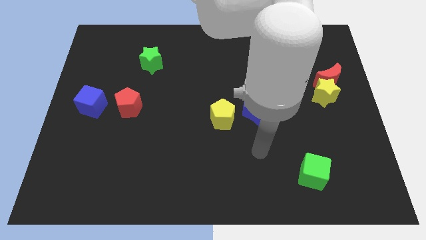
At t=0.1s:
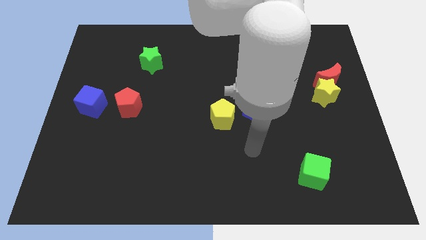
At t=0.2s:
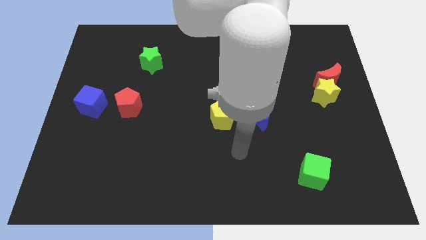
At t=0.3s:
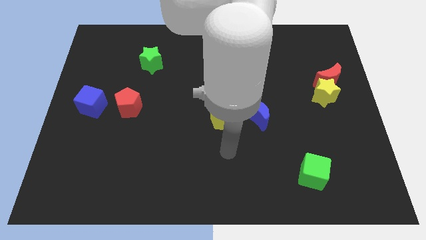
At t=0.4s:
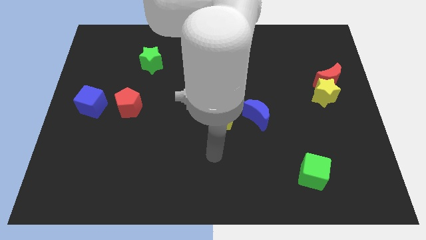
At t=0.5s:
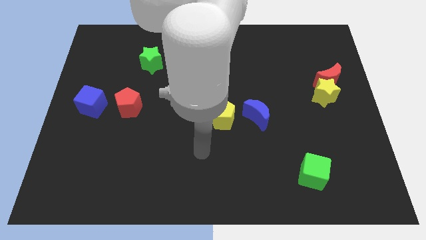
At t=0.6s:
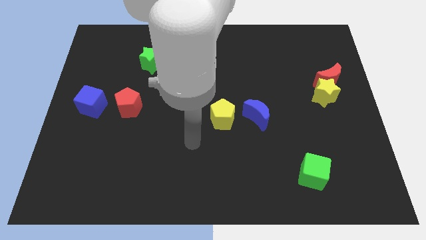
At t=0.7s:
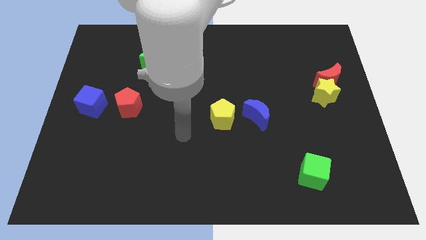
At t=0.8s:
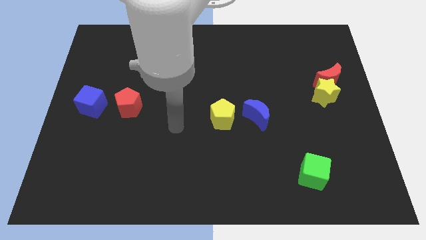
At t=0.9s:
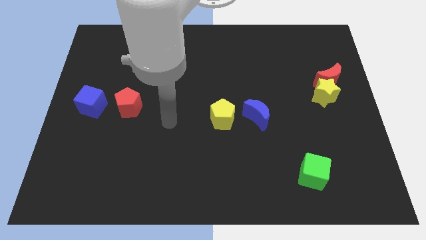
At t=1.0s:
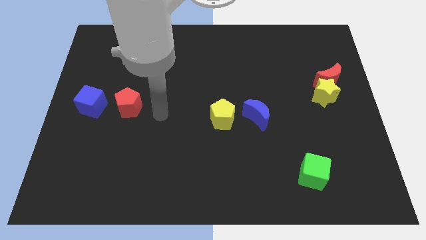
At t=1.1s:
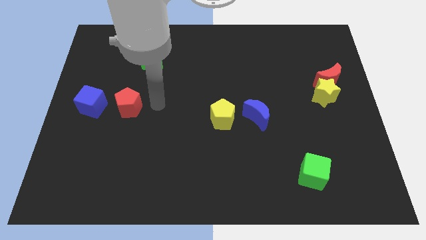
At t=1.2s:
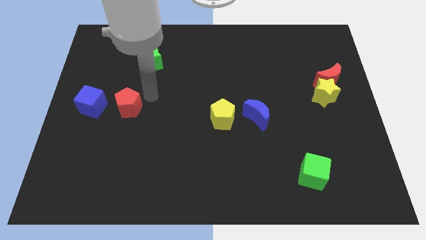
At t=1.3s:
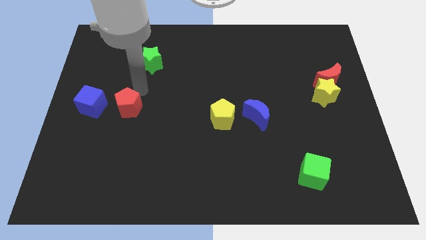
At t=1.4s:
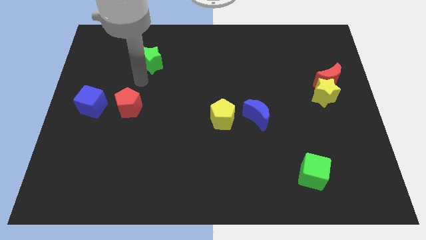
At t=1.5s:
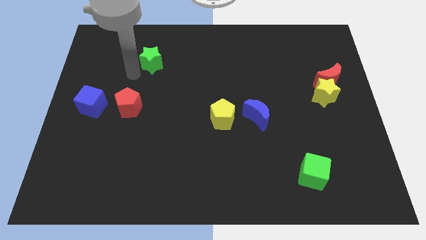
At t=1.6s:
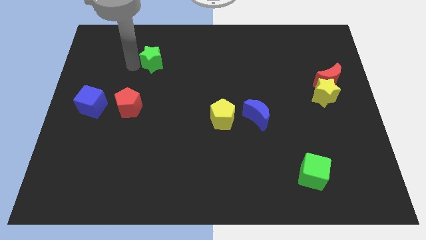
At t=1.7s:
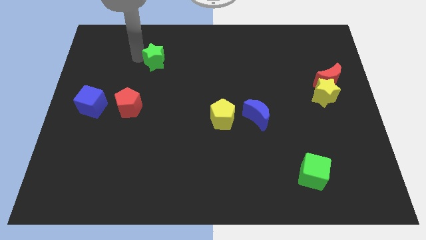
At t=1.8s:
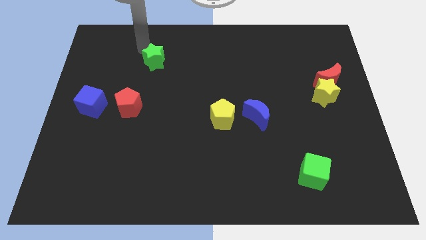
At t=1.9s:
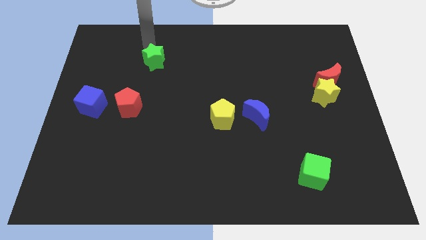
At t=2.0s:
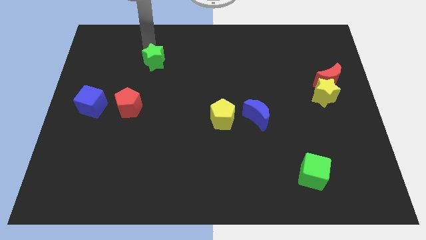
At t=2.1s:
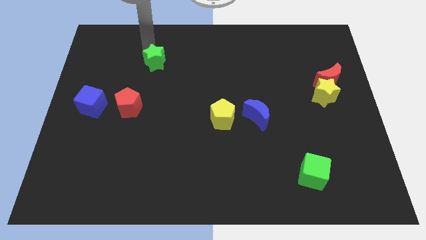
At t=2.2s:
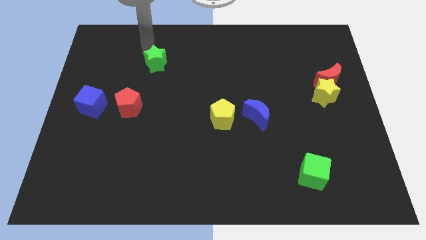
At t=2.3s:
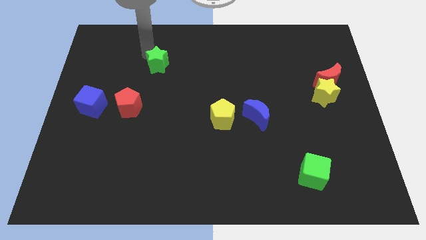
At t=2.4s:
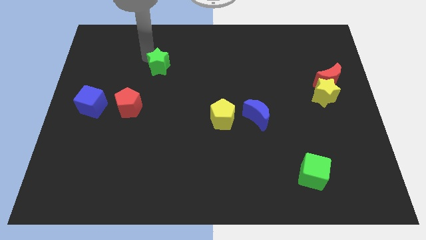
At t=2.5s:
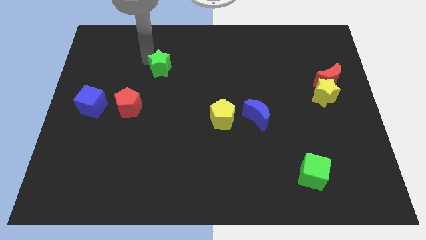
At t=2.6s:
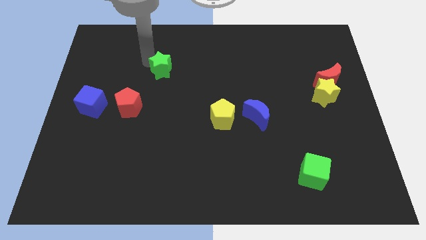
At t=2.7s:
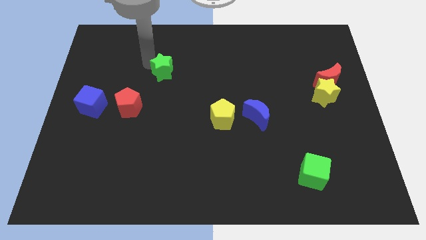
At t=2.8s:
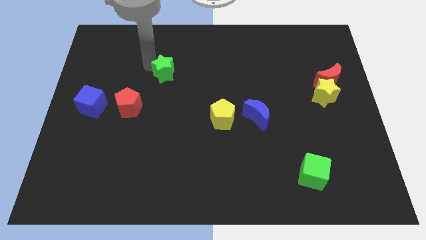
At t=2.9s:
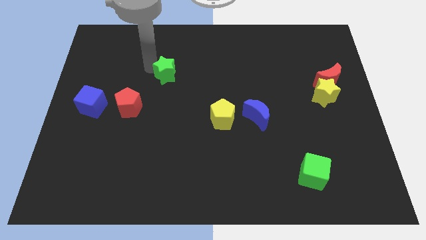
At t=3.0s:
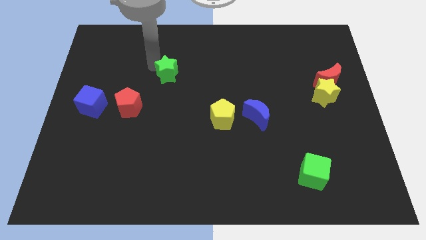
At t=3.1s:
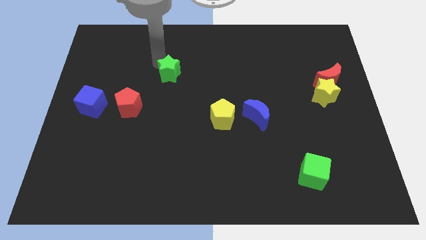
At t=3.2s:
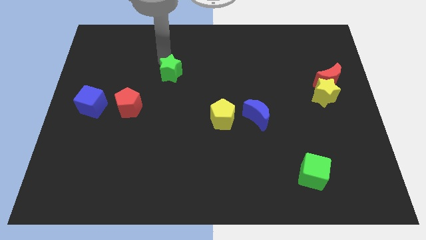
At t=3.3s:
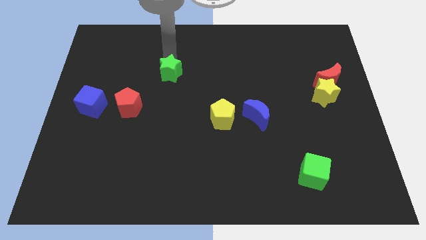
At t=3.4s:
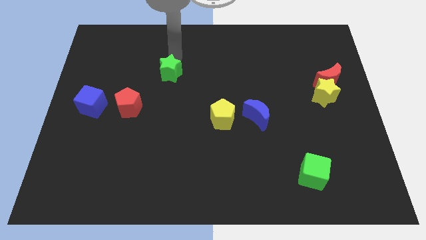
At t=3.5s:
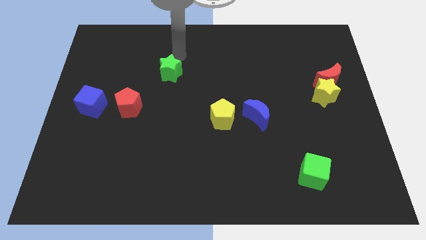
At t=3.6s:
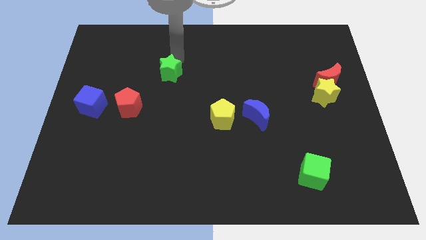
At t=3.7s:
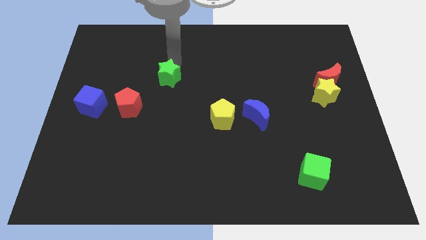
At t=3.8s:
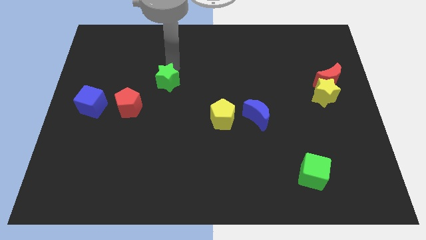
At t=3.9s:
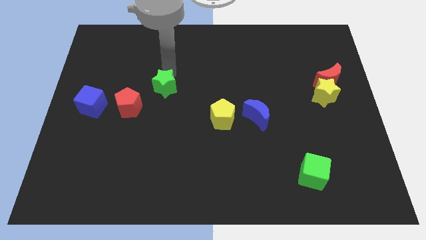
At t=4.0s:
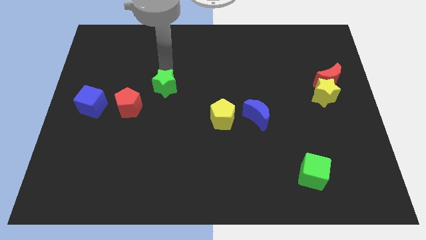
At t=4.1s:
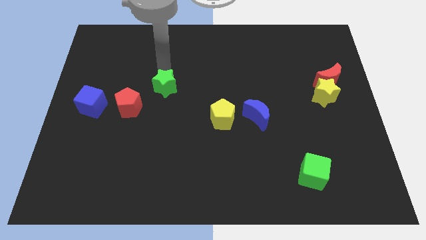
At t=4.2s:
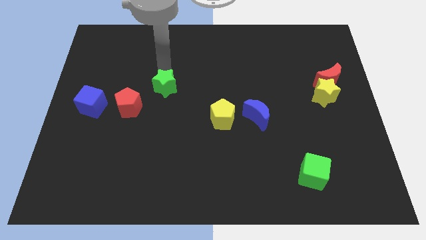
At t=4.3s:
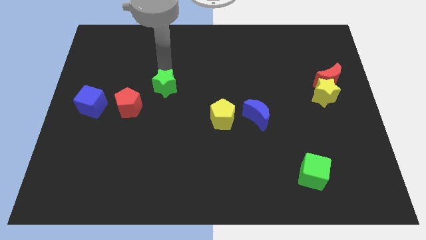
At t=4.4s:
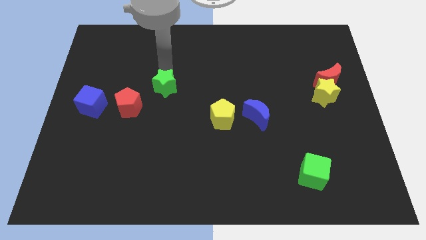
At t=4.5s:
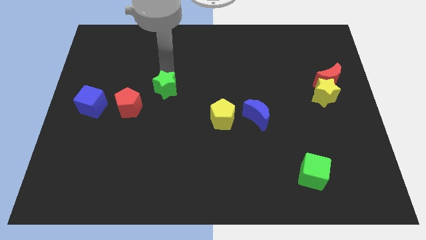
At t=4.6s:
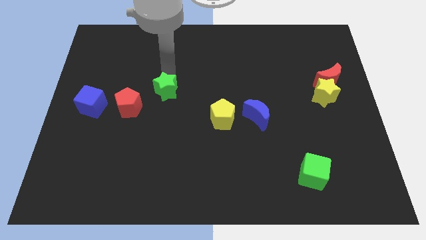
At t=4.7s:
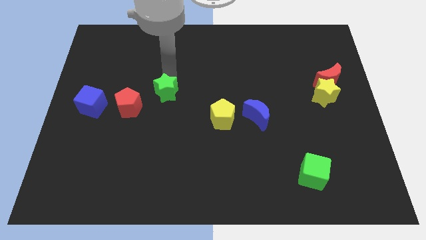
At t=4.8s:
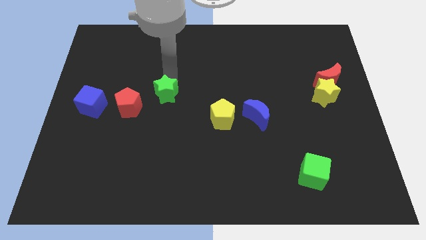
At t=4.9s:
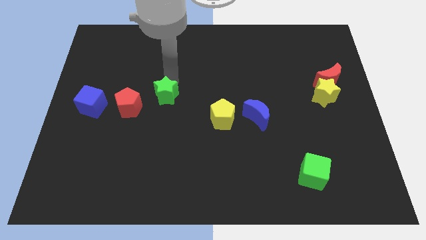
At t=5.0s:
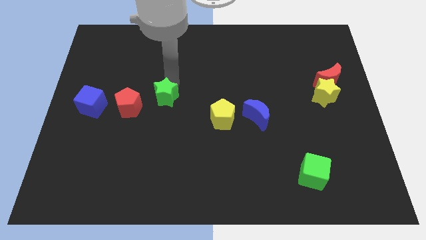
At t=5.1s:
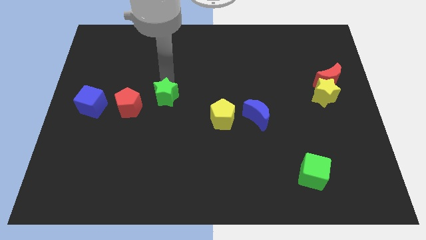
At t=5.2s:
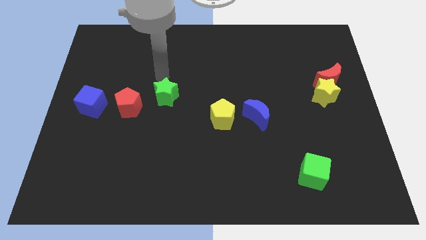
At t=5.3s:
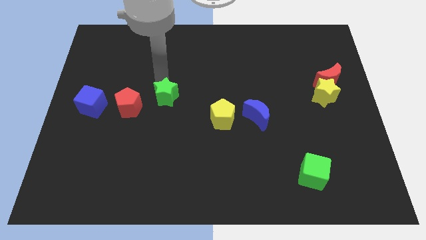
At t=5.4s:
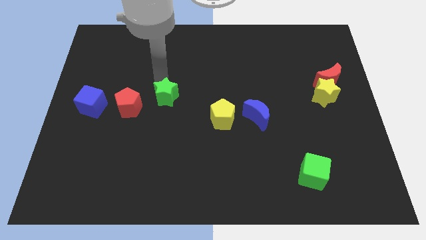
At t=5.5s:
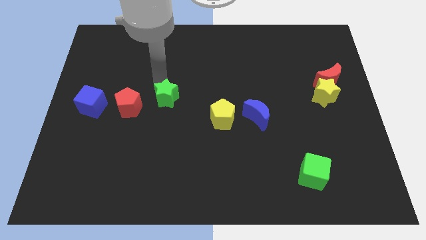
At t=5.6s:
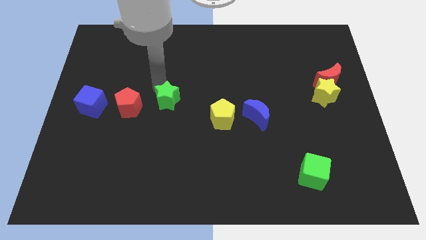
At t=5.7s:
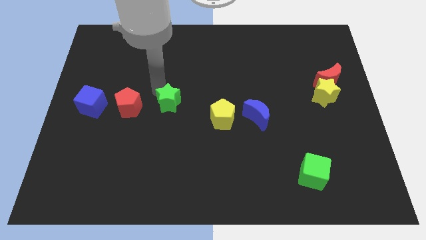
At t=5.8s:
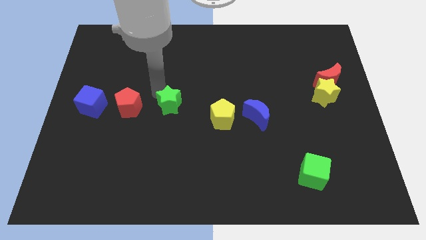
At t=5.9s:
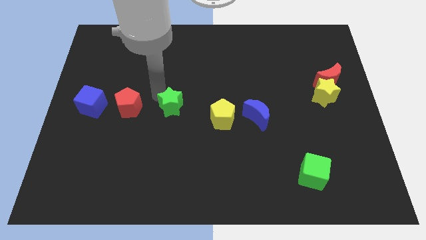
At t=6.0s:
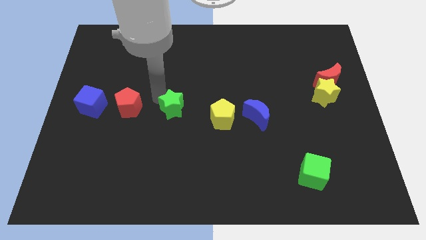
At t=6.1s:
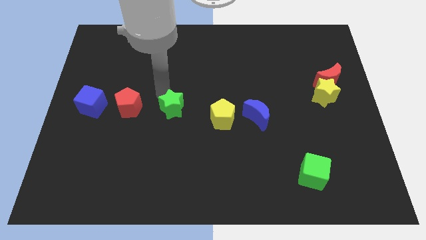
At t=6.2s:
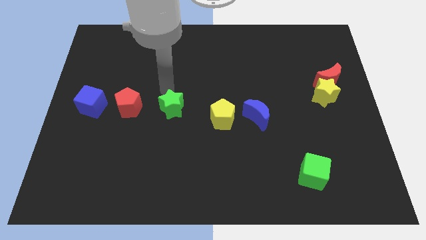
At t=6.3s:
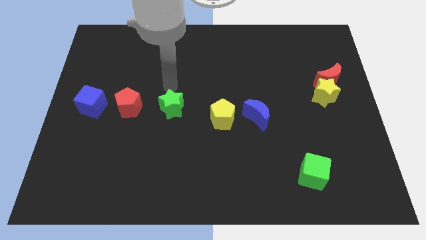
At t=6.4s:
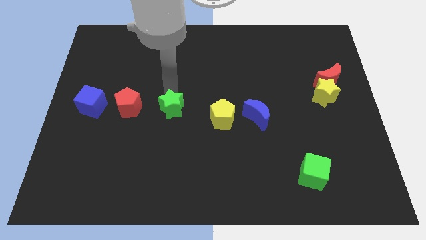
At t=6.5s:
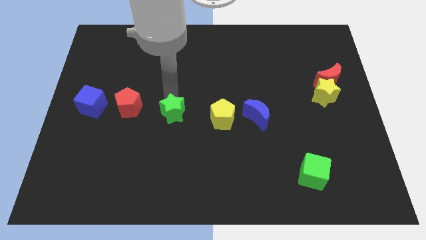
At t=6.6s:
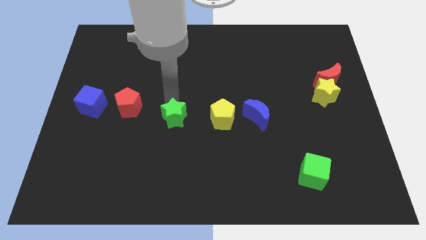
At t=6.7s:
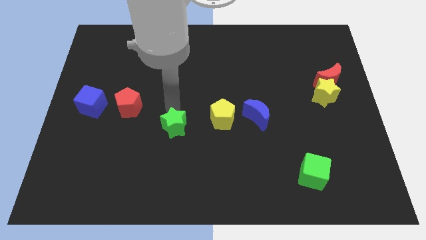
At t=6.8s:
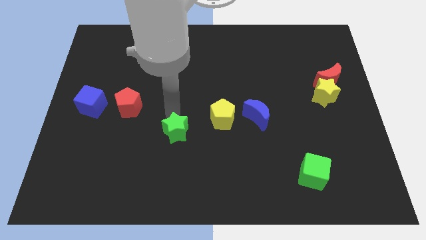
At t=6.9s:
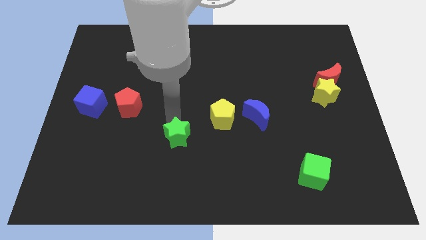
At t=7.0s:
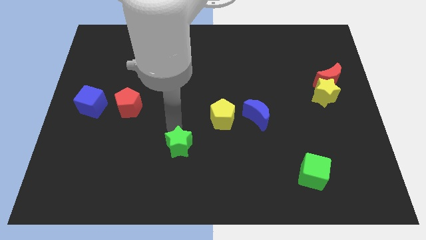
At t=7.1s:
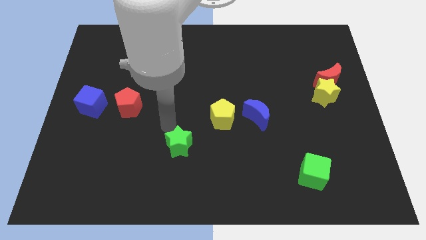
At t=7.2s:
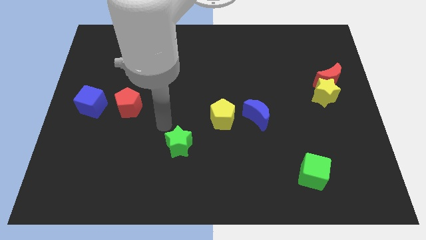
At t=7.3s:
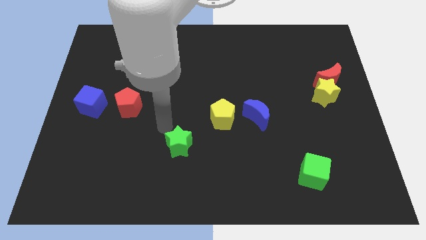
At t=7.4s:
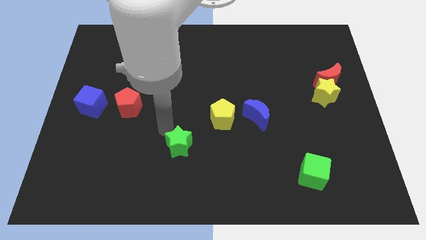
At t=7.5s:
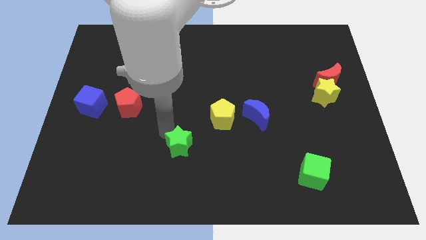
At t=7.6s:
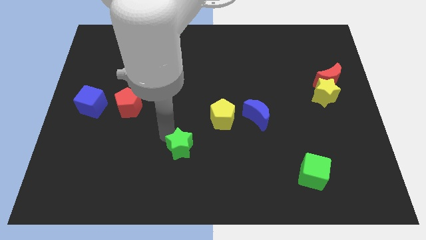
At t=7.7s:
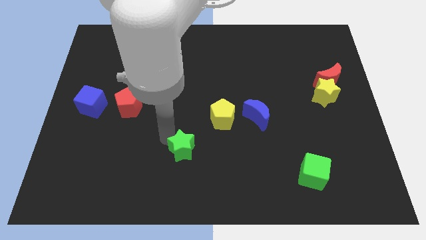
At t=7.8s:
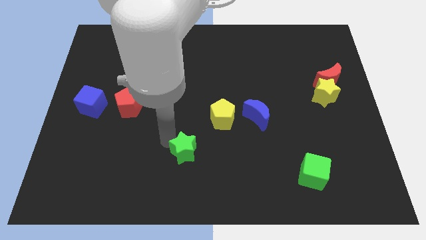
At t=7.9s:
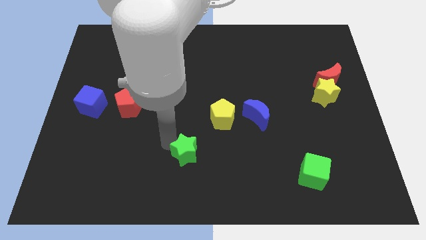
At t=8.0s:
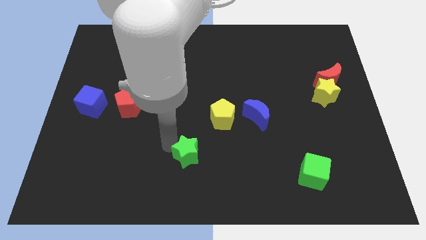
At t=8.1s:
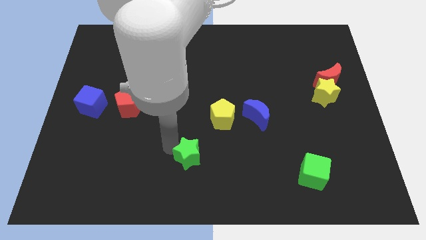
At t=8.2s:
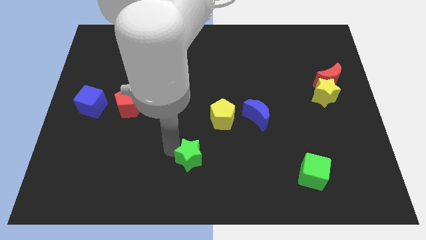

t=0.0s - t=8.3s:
push the green star to the bottom
